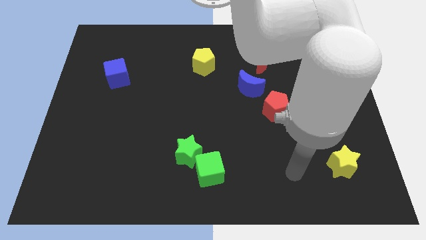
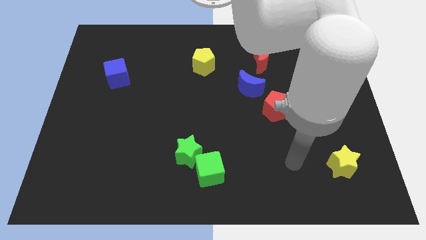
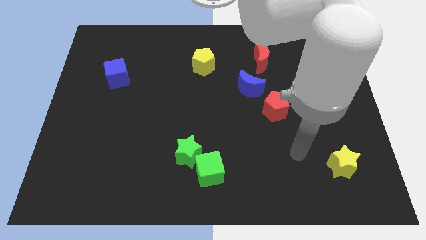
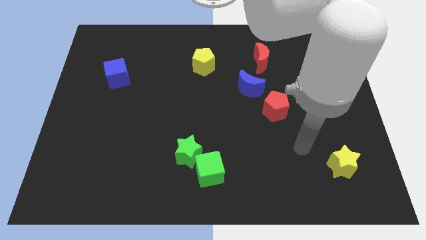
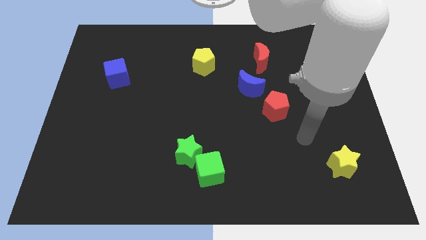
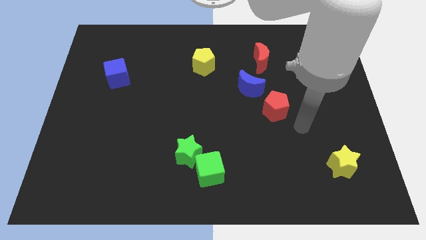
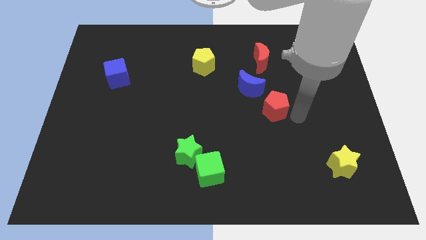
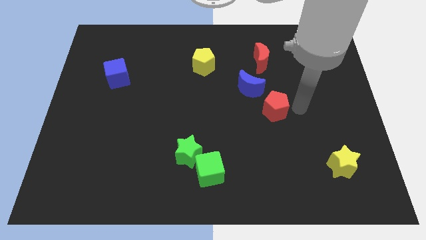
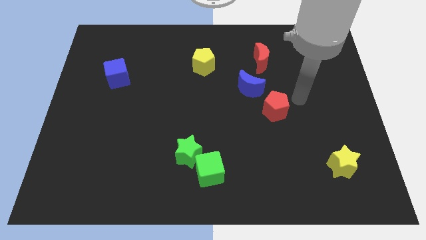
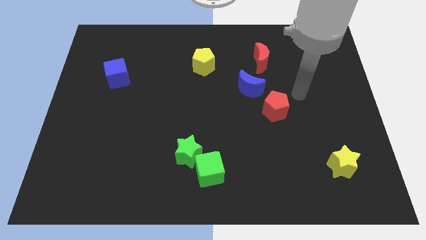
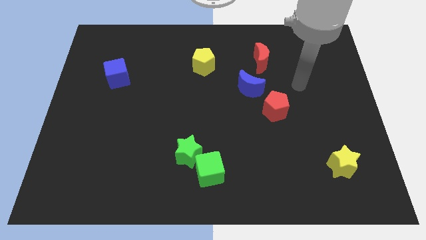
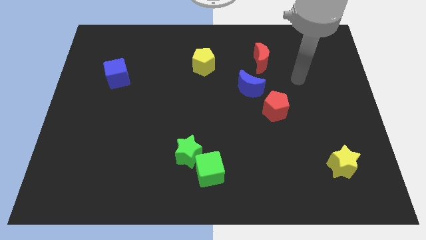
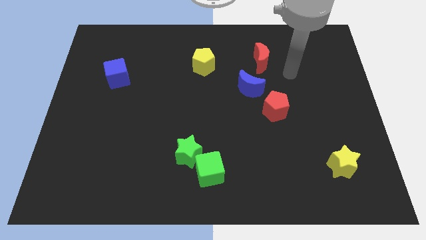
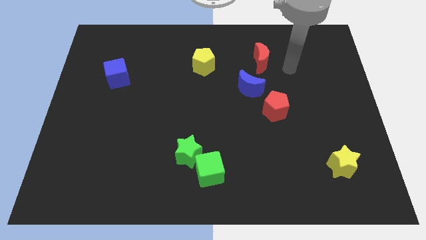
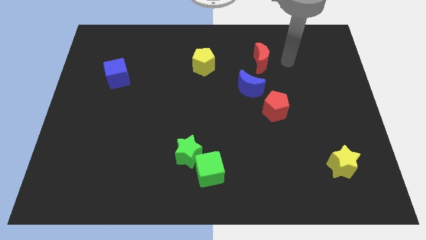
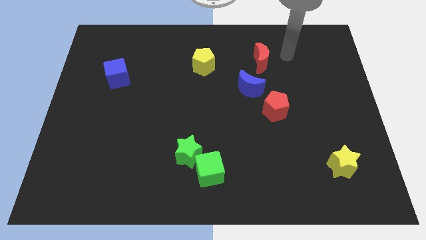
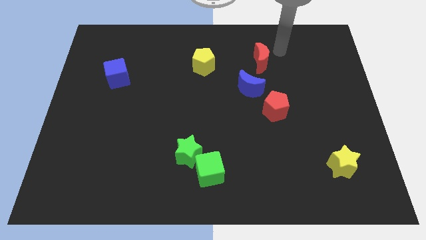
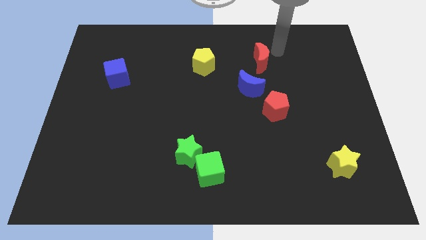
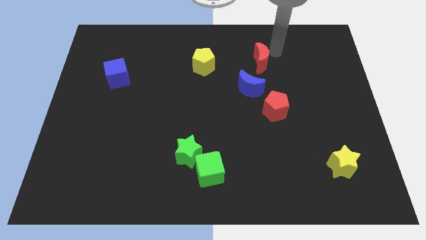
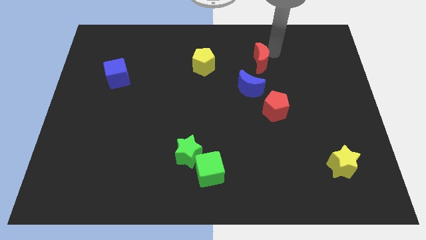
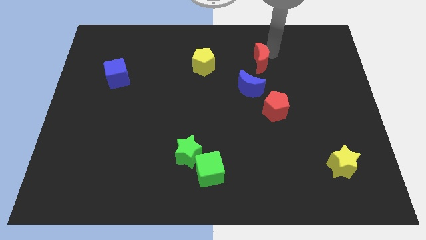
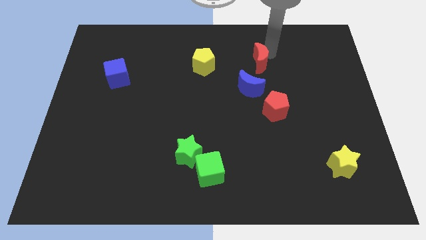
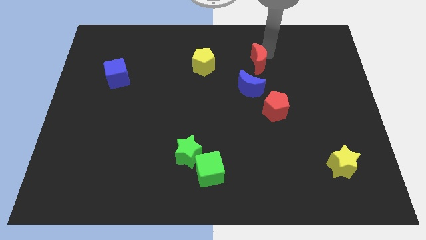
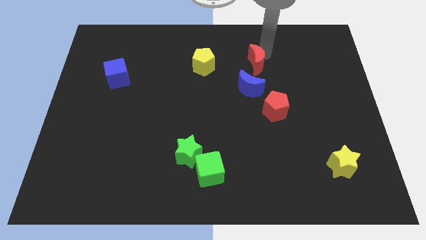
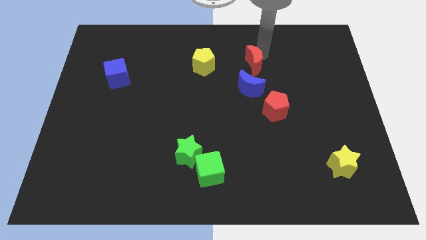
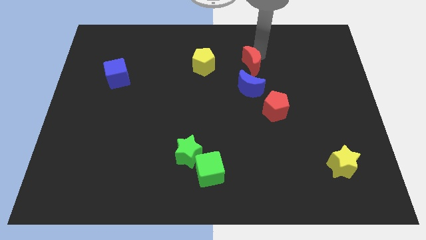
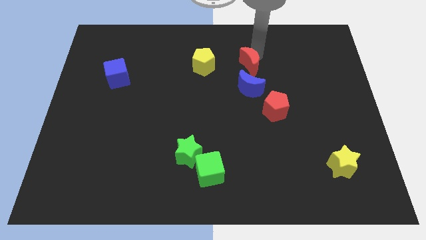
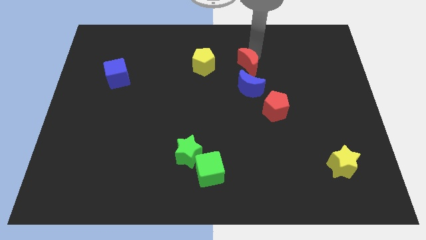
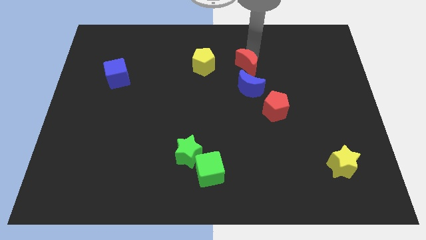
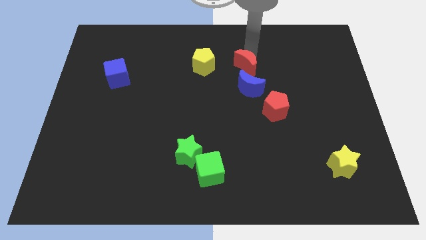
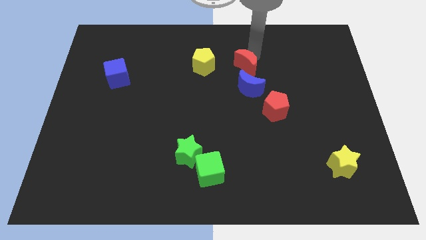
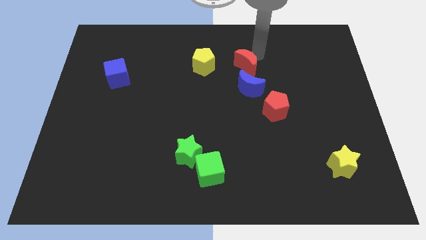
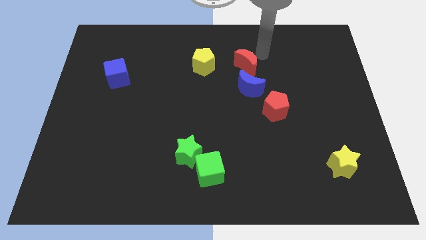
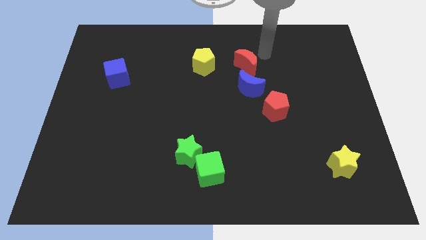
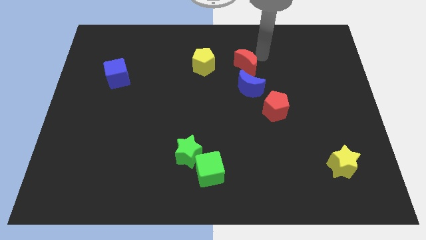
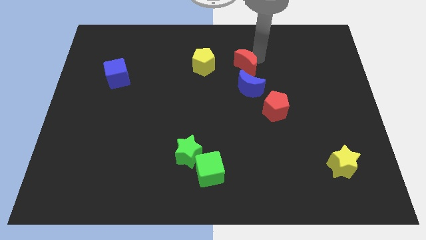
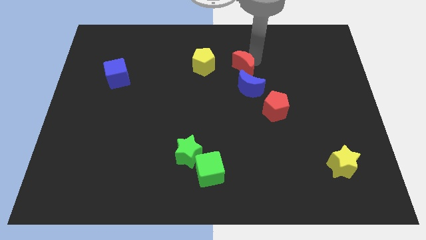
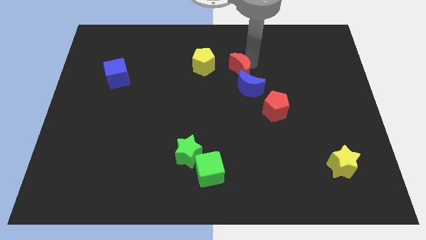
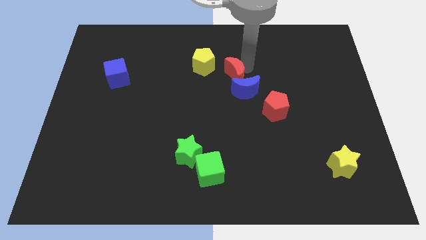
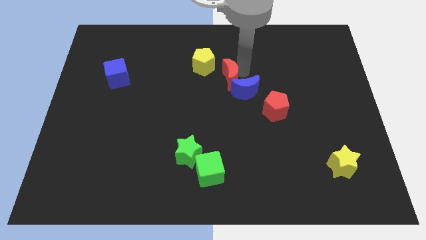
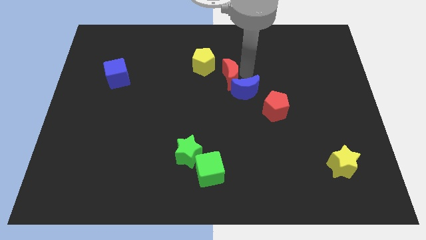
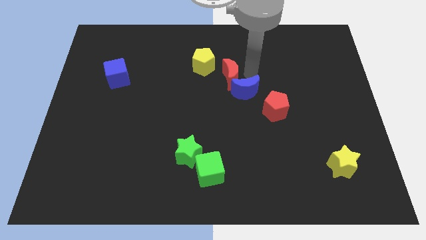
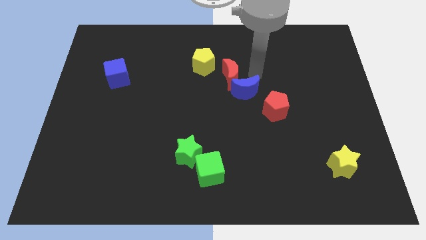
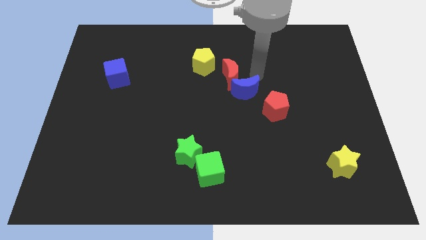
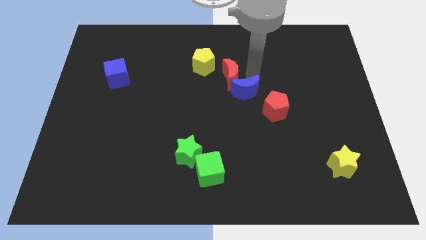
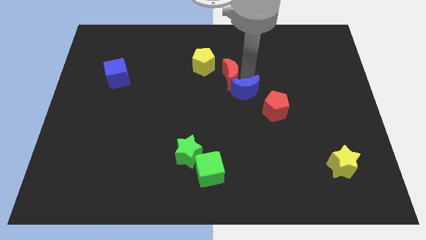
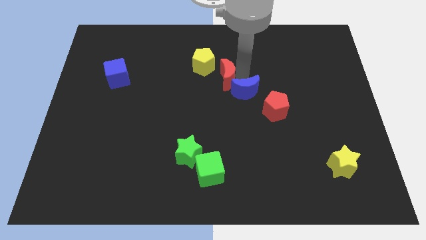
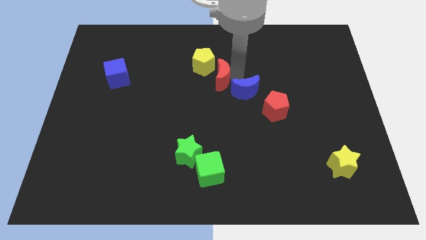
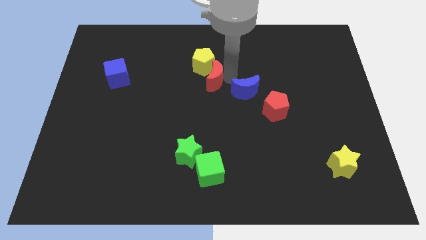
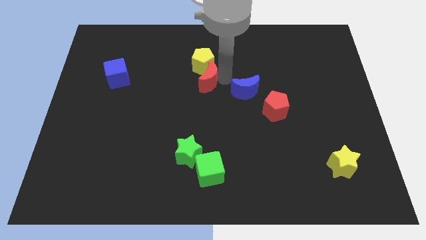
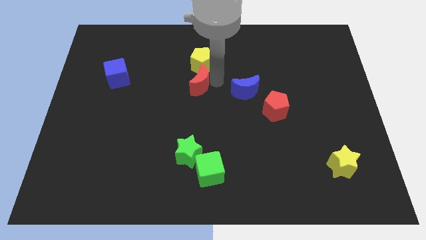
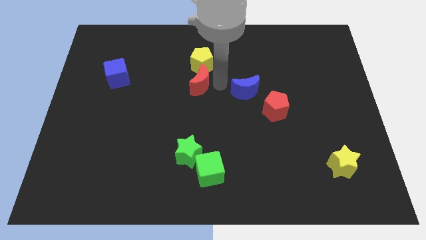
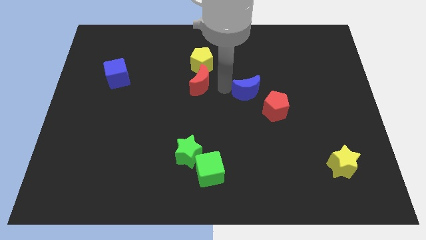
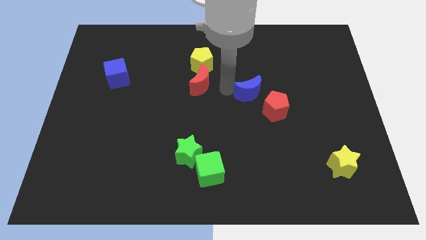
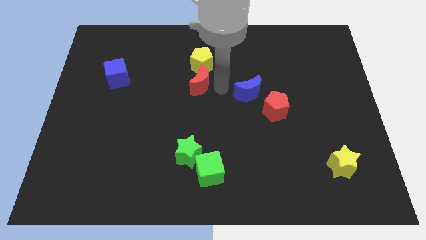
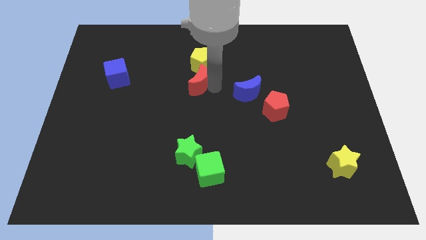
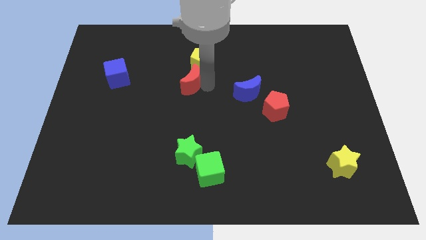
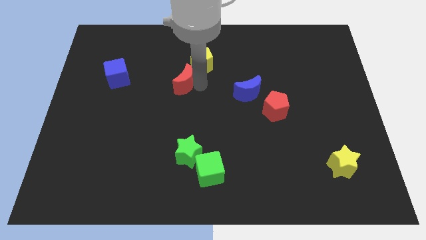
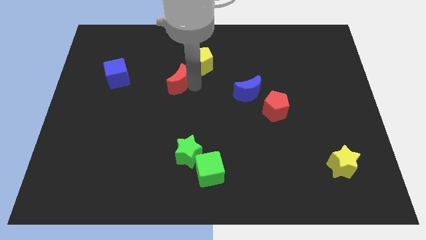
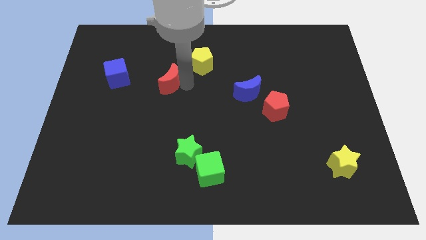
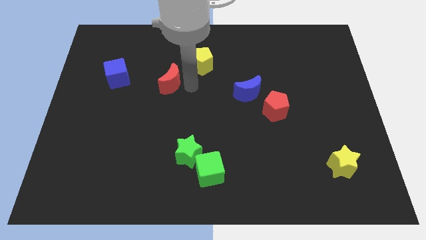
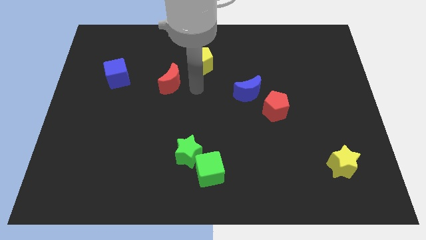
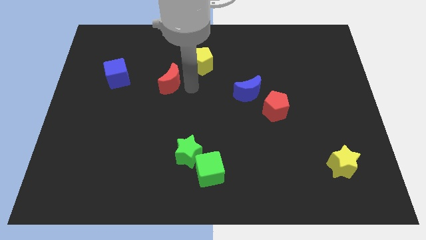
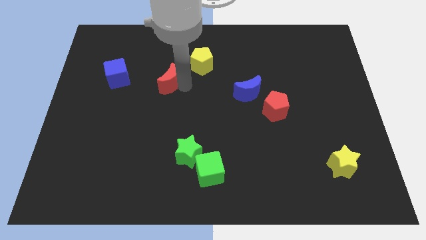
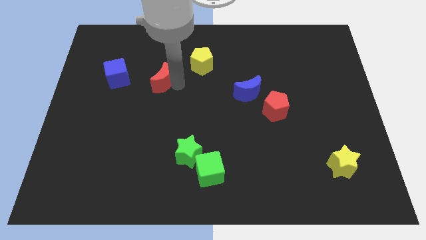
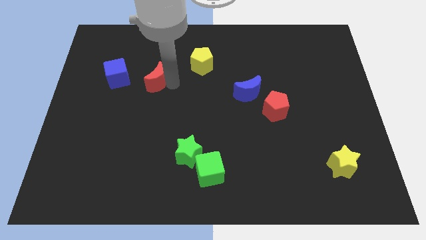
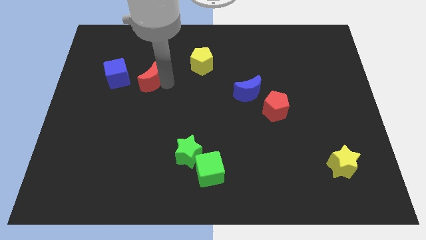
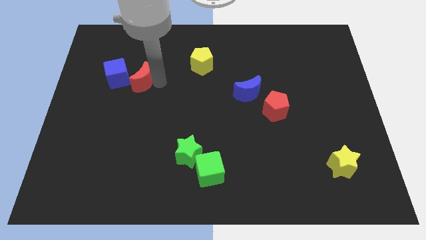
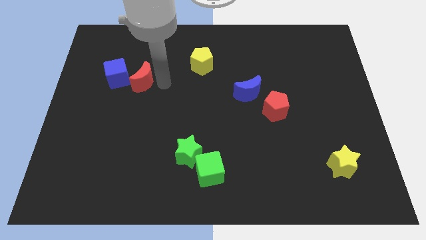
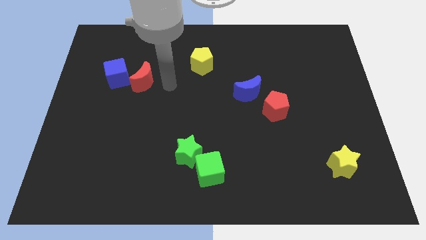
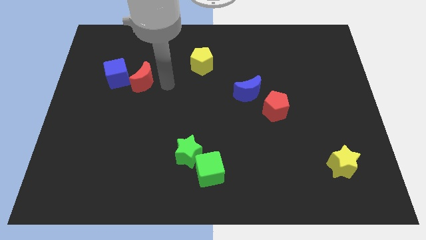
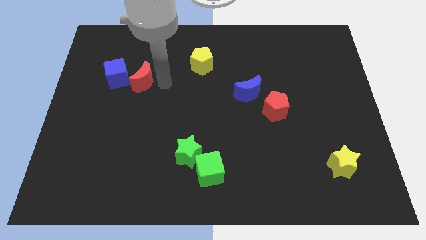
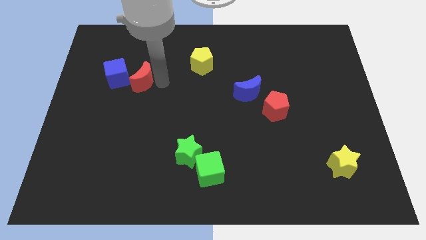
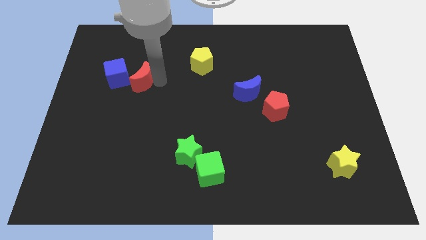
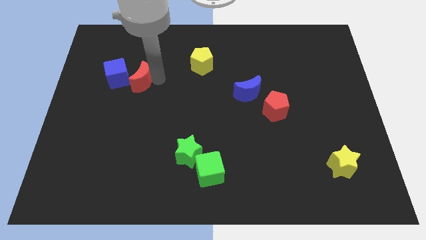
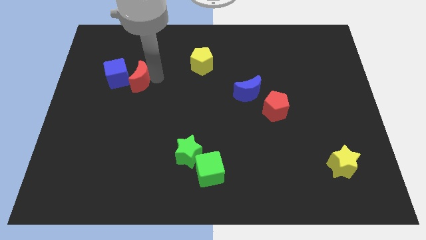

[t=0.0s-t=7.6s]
slide the red moon to the blue cube
